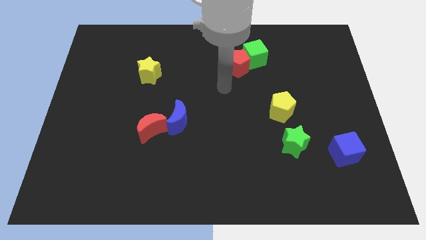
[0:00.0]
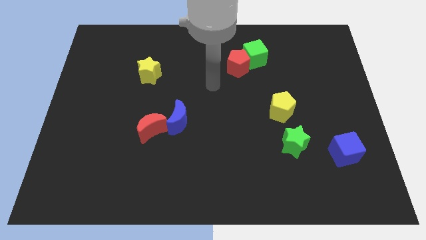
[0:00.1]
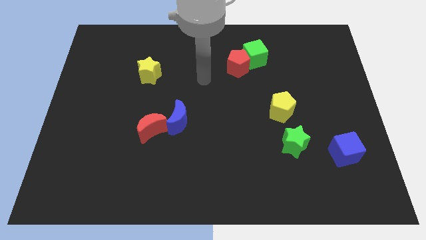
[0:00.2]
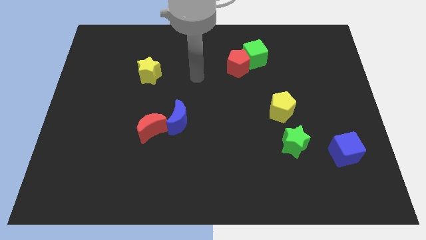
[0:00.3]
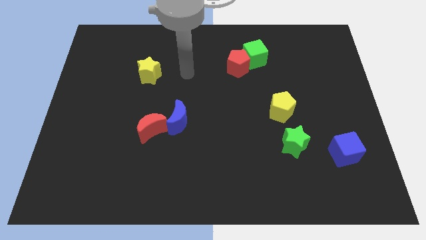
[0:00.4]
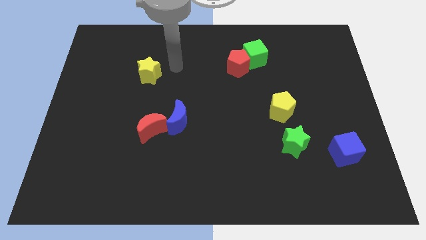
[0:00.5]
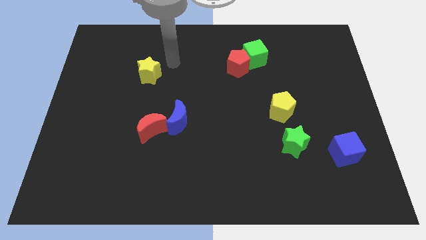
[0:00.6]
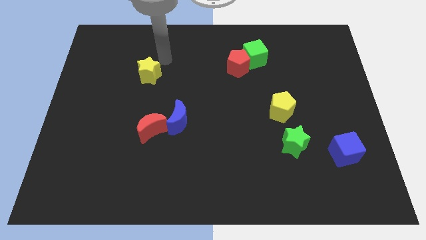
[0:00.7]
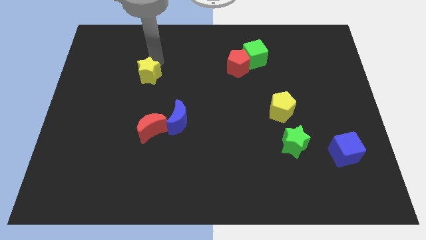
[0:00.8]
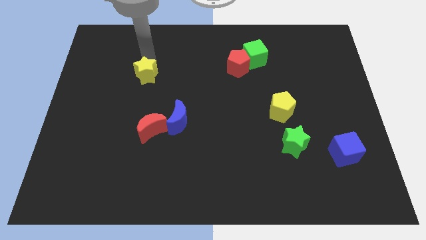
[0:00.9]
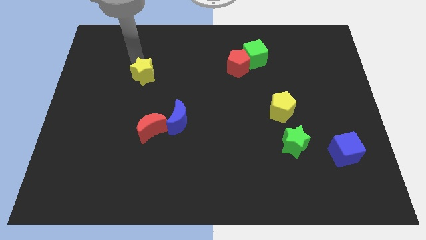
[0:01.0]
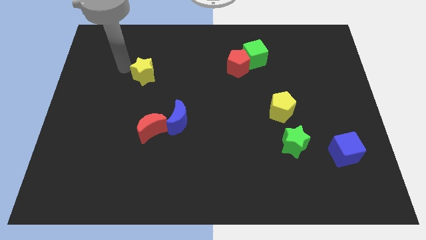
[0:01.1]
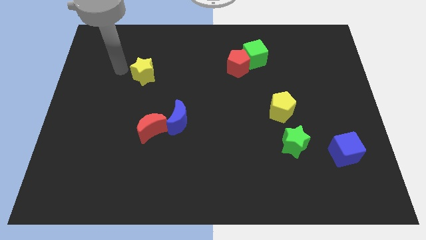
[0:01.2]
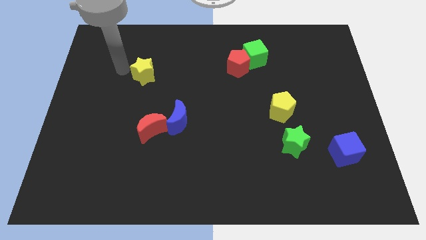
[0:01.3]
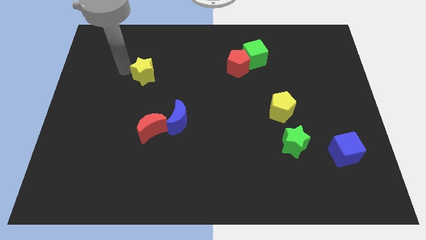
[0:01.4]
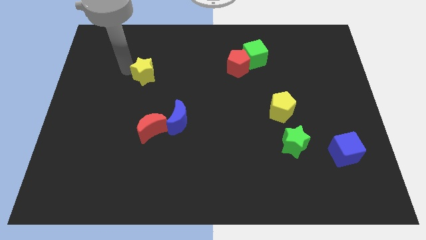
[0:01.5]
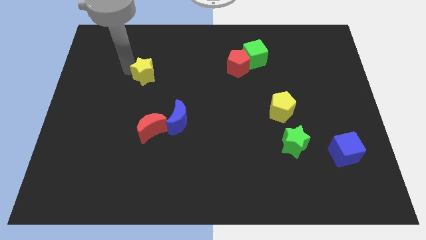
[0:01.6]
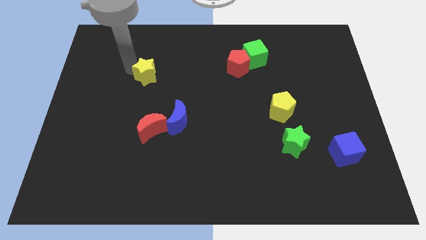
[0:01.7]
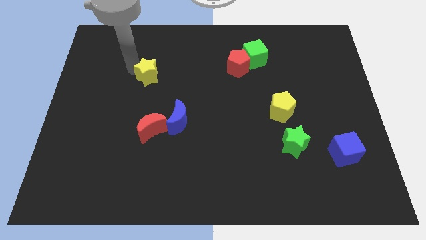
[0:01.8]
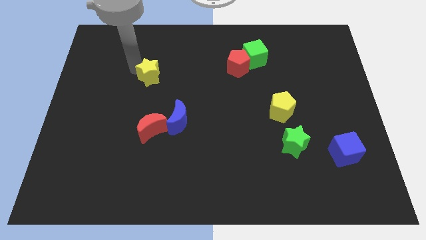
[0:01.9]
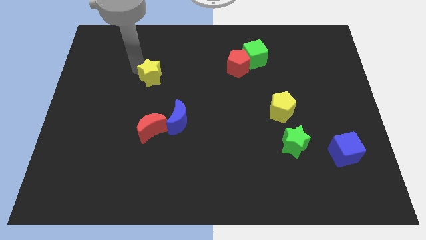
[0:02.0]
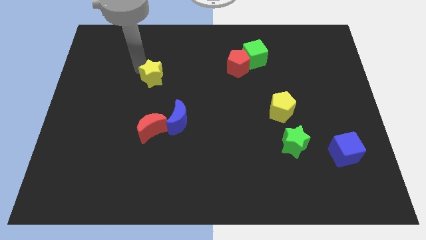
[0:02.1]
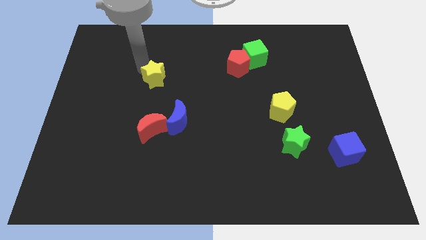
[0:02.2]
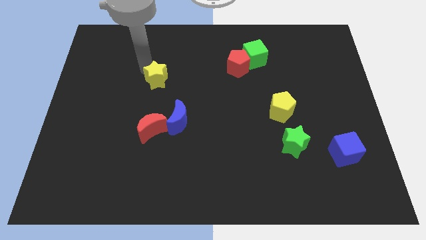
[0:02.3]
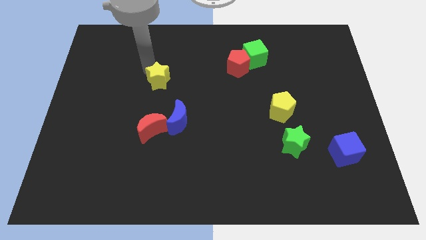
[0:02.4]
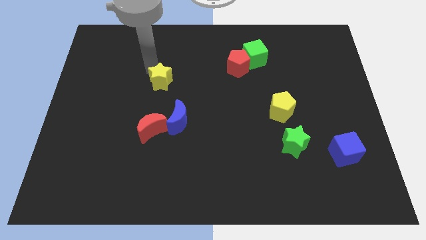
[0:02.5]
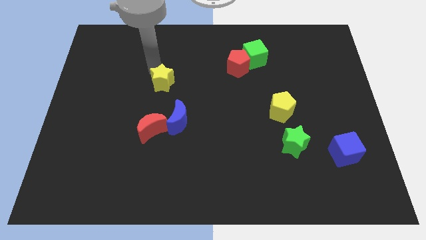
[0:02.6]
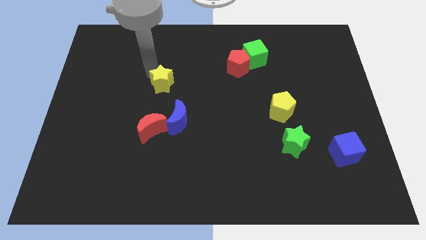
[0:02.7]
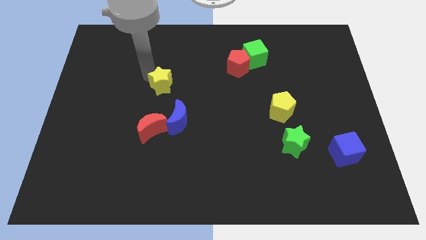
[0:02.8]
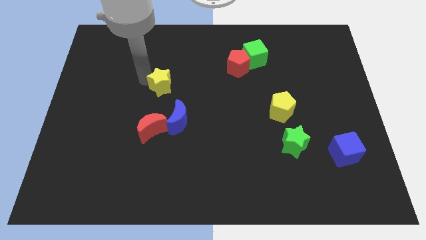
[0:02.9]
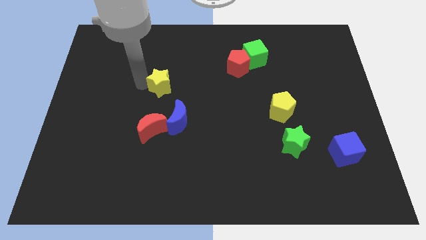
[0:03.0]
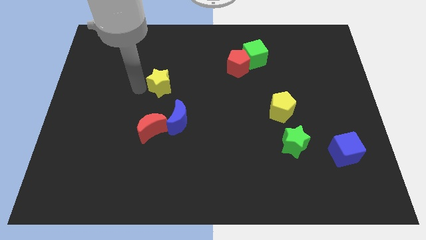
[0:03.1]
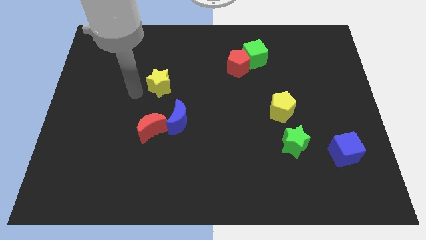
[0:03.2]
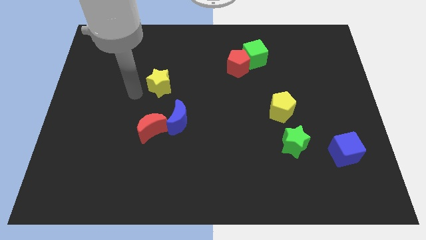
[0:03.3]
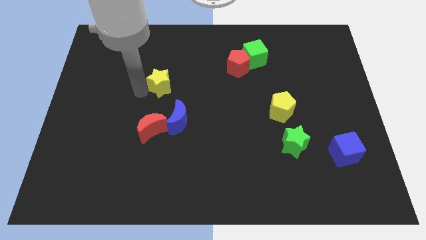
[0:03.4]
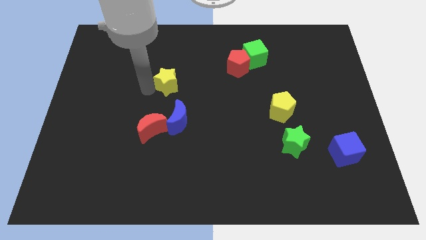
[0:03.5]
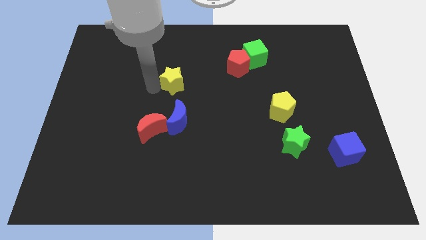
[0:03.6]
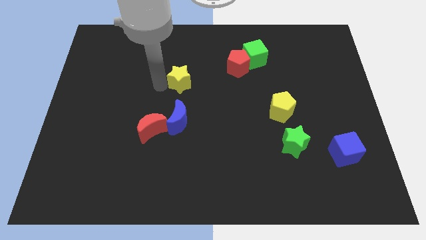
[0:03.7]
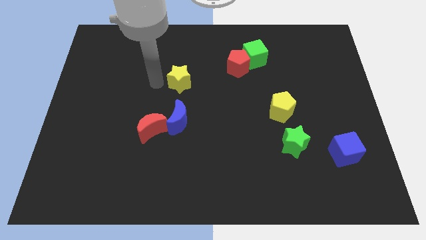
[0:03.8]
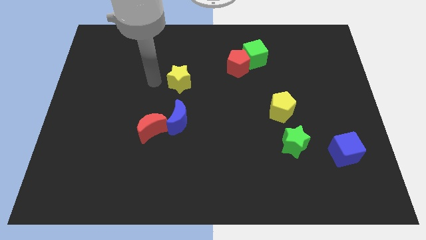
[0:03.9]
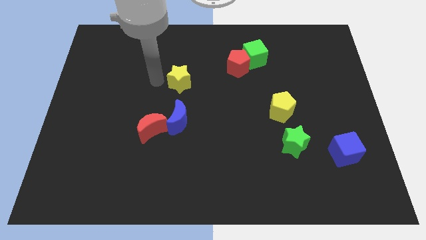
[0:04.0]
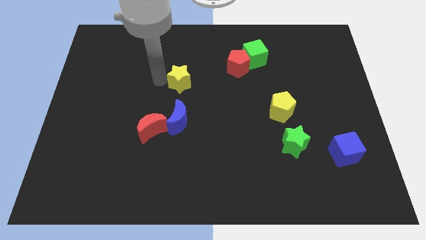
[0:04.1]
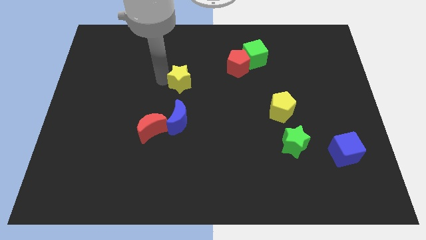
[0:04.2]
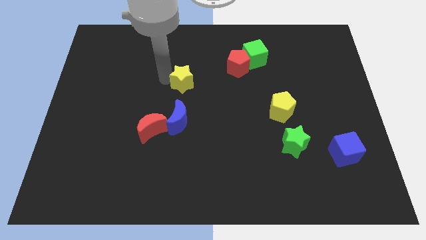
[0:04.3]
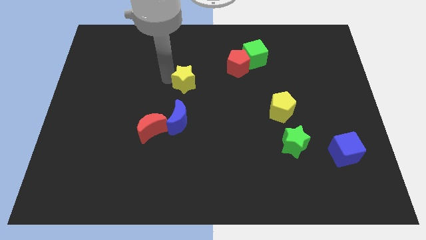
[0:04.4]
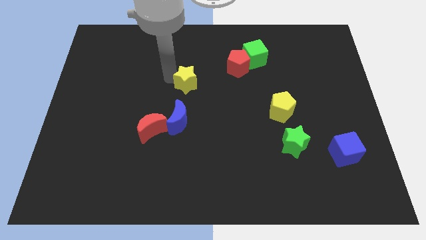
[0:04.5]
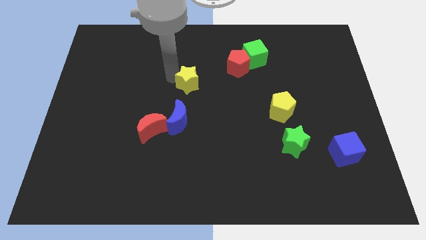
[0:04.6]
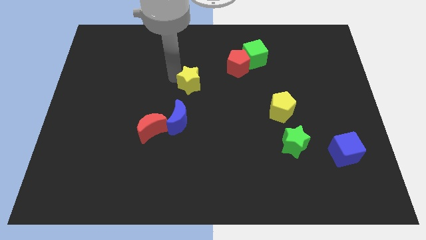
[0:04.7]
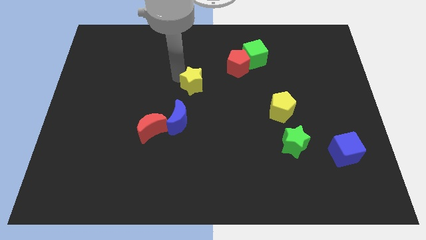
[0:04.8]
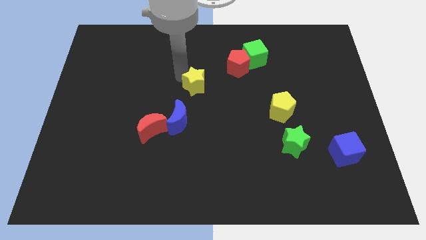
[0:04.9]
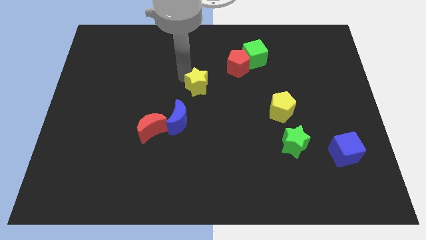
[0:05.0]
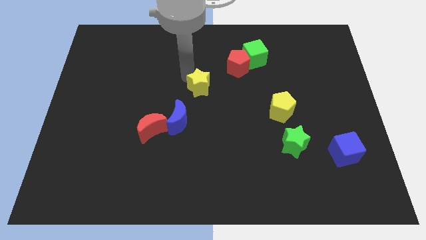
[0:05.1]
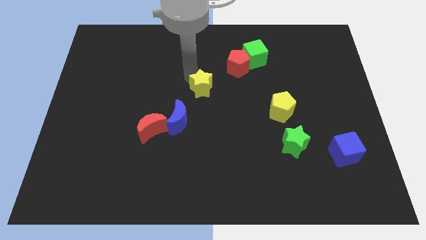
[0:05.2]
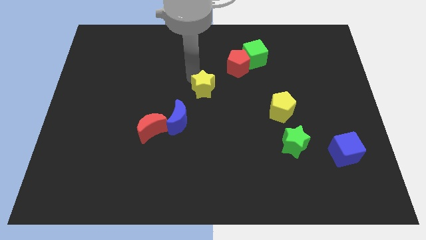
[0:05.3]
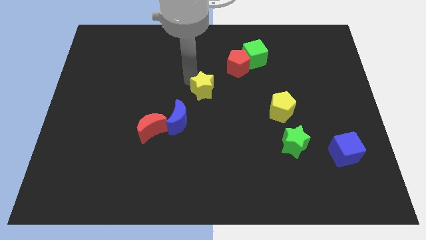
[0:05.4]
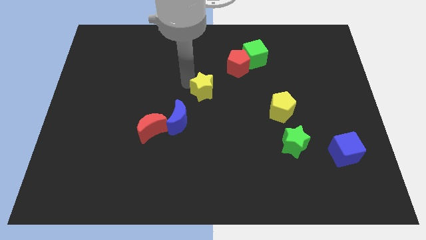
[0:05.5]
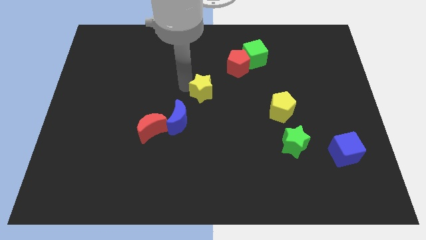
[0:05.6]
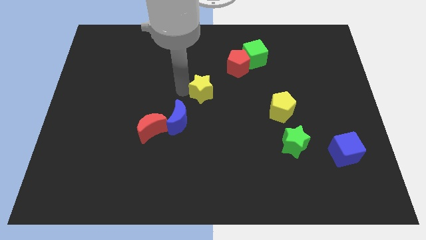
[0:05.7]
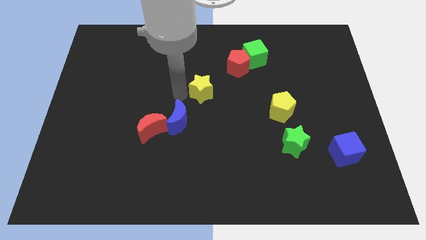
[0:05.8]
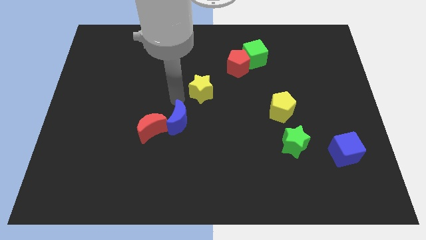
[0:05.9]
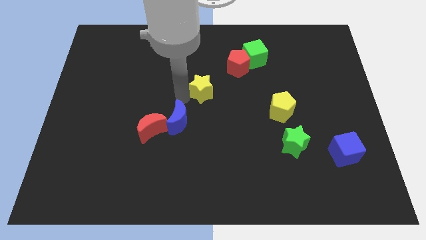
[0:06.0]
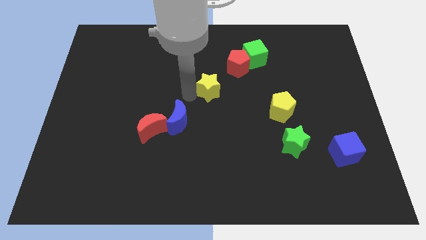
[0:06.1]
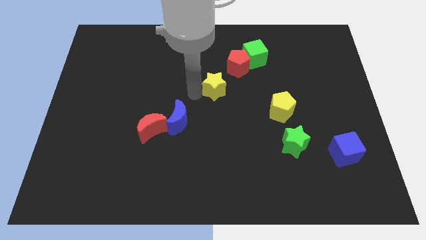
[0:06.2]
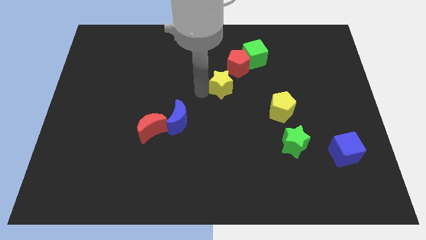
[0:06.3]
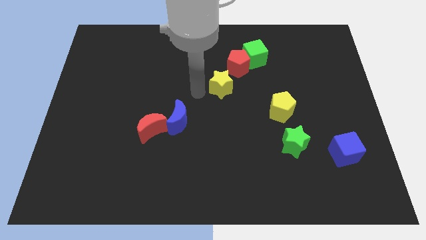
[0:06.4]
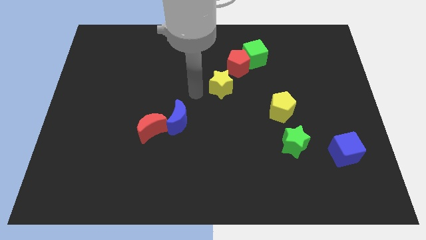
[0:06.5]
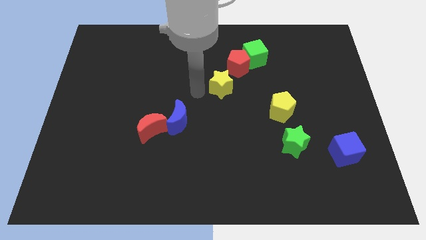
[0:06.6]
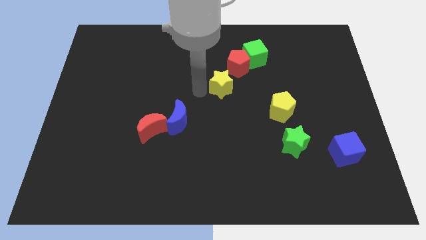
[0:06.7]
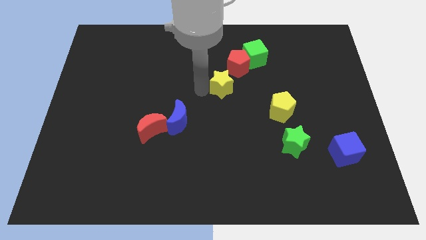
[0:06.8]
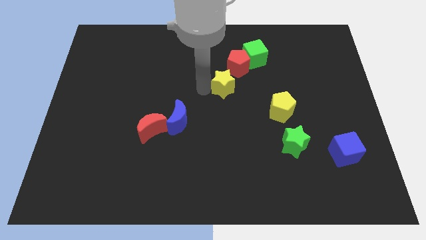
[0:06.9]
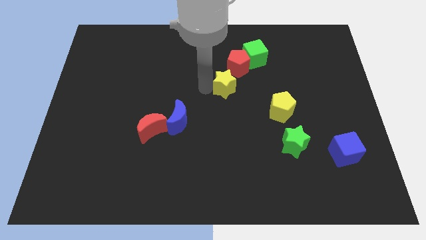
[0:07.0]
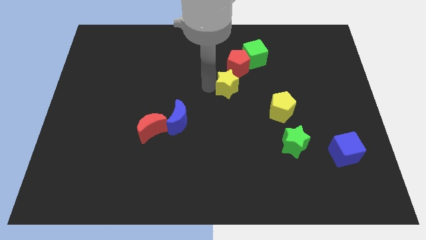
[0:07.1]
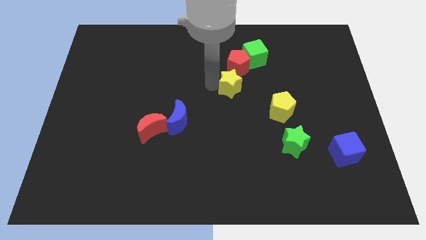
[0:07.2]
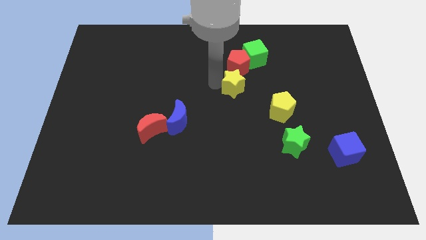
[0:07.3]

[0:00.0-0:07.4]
move the yellow star right

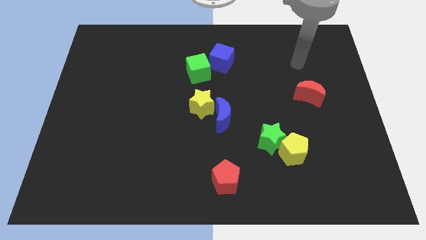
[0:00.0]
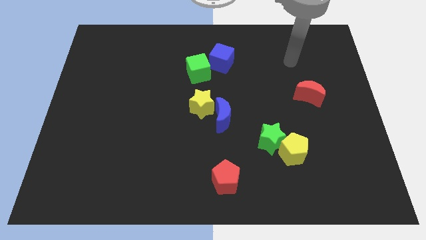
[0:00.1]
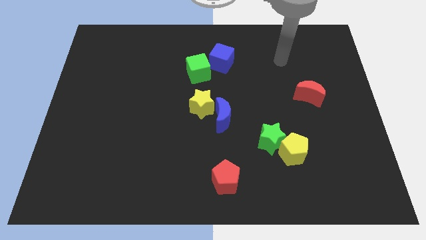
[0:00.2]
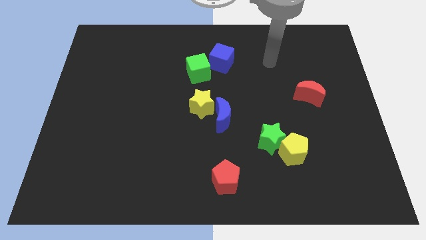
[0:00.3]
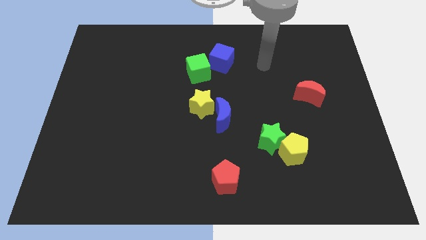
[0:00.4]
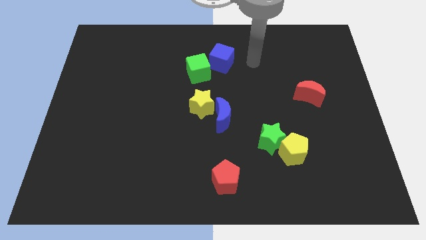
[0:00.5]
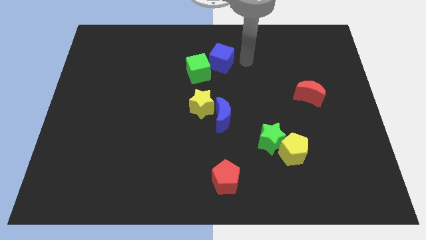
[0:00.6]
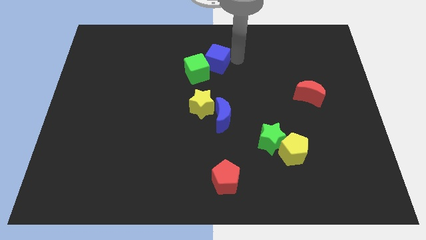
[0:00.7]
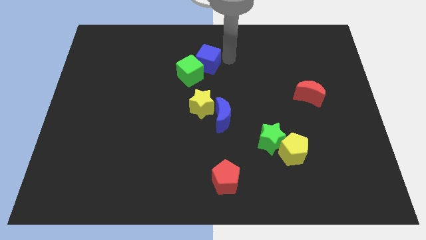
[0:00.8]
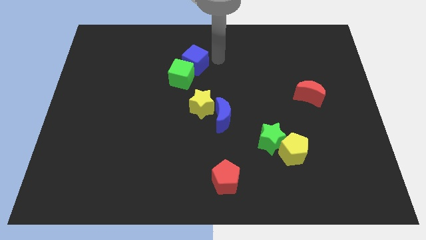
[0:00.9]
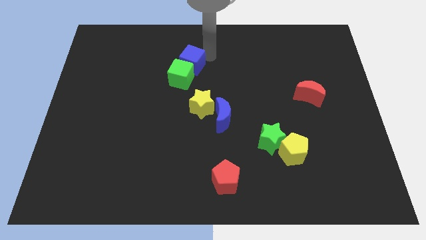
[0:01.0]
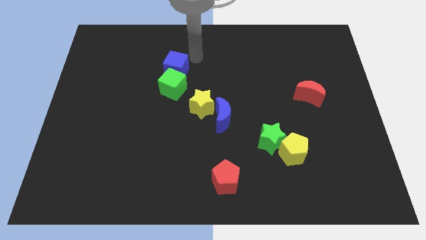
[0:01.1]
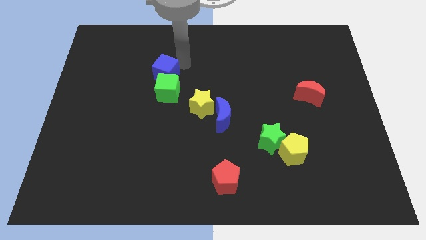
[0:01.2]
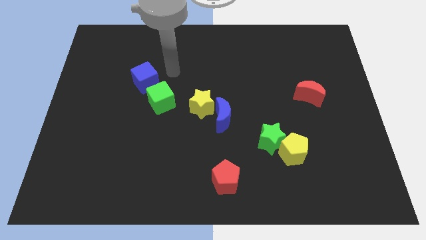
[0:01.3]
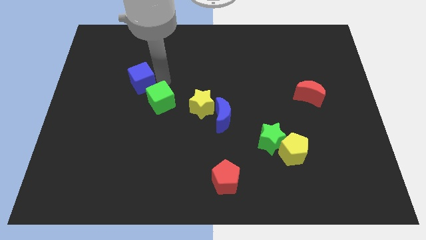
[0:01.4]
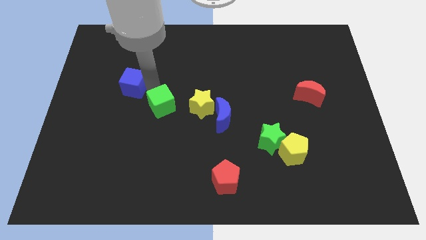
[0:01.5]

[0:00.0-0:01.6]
move the green cube somewhat downwards
